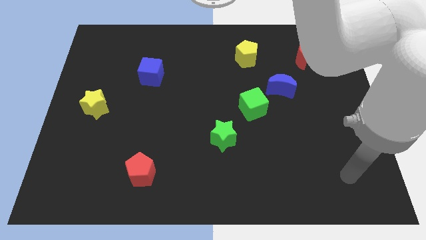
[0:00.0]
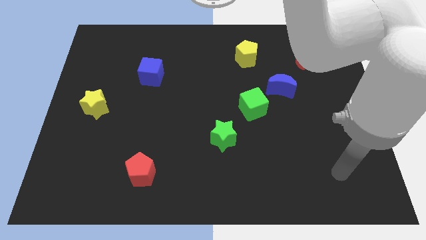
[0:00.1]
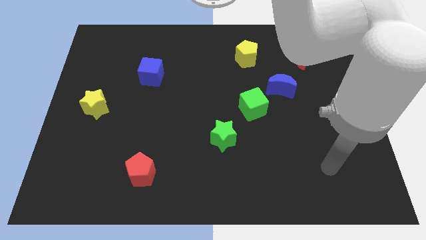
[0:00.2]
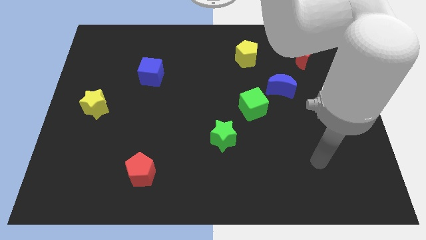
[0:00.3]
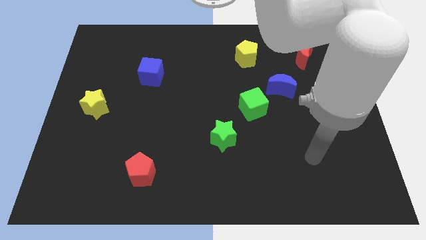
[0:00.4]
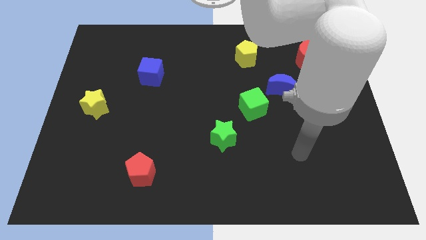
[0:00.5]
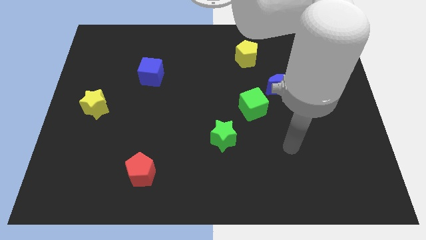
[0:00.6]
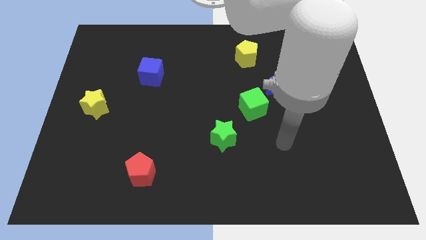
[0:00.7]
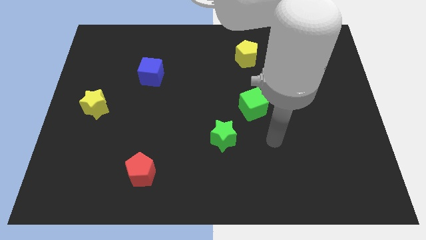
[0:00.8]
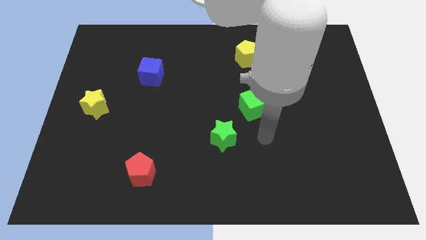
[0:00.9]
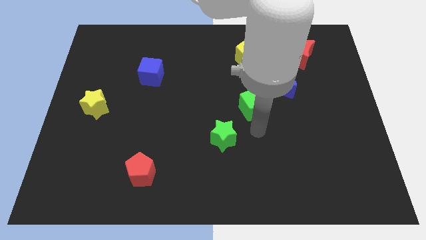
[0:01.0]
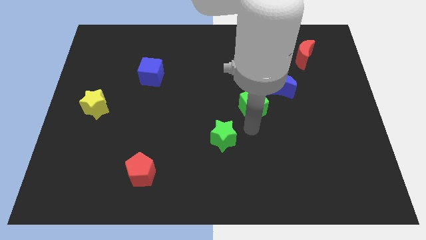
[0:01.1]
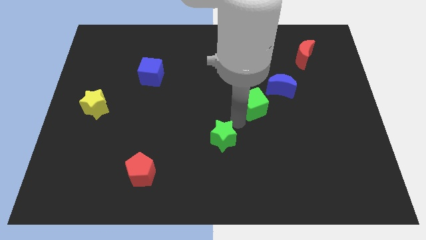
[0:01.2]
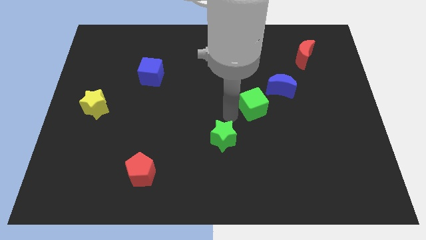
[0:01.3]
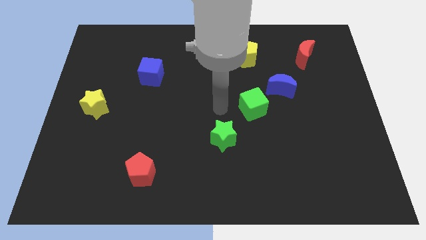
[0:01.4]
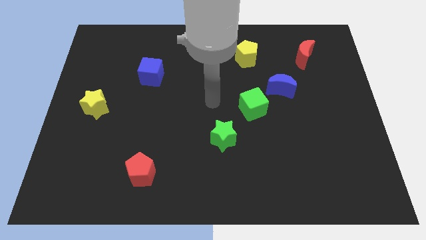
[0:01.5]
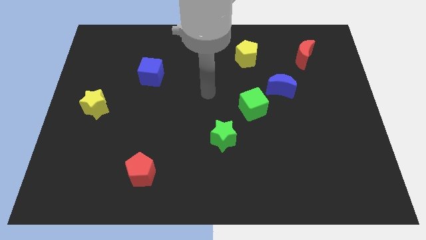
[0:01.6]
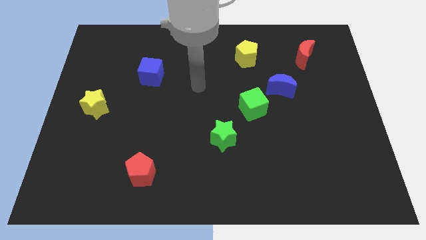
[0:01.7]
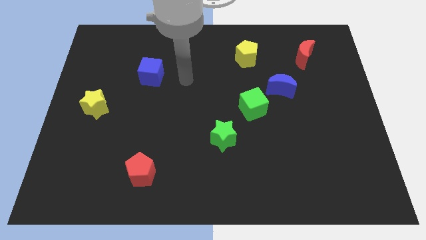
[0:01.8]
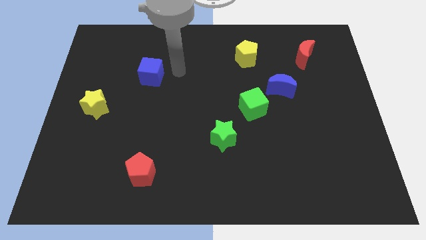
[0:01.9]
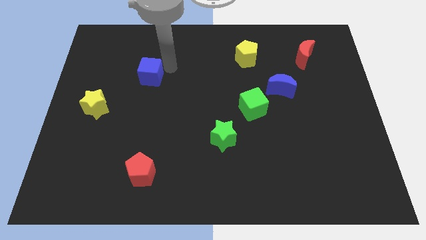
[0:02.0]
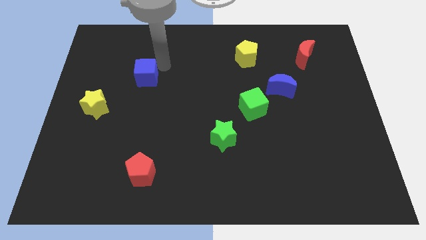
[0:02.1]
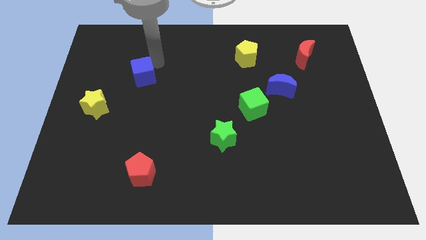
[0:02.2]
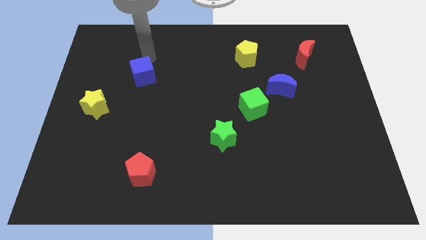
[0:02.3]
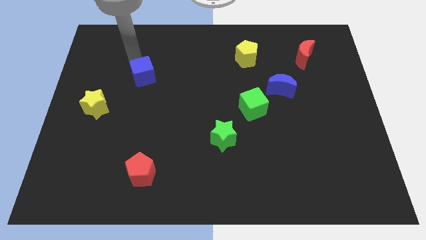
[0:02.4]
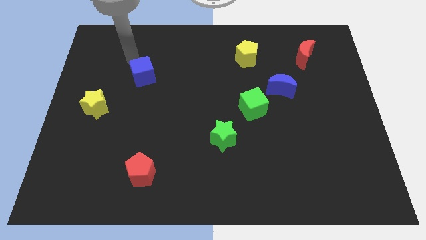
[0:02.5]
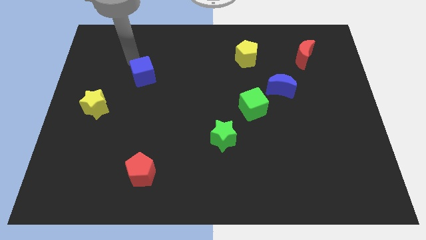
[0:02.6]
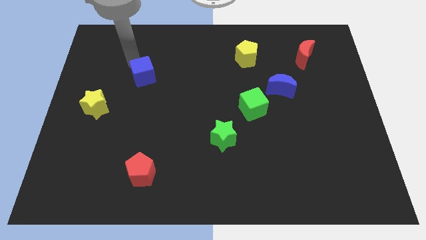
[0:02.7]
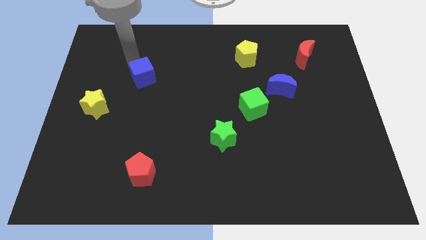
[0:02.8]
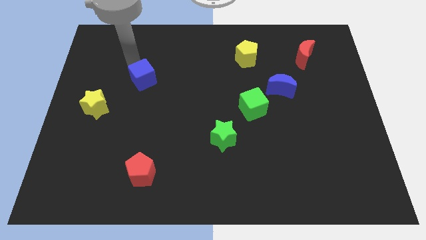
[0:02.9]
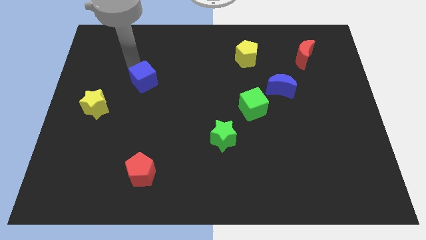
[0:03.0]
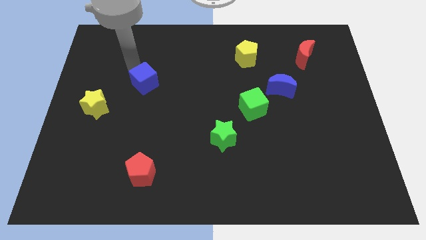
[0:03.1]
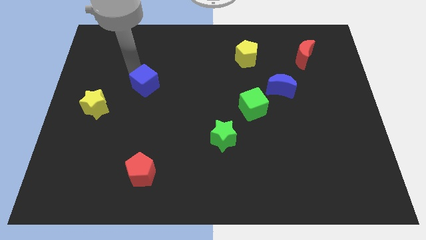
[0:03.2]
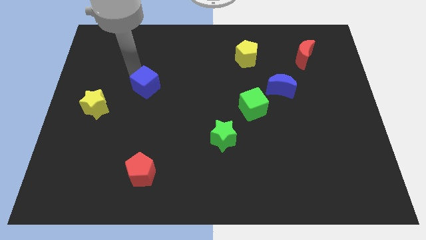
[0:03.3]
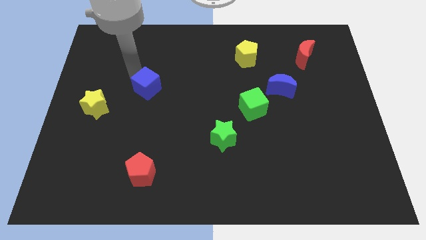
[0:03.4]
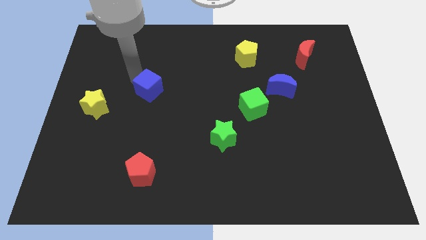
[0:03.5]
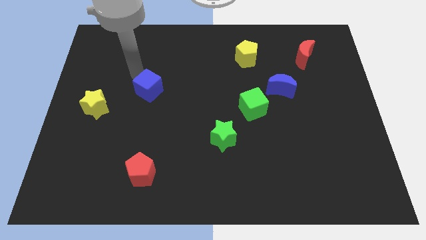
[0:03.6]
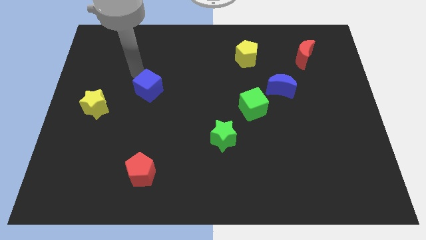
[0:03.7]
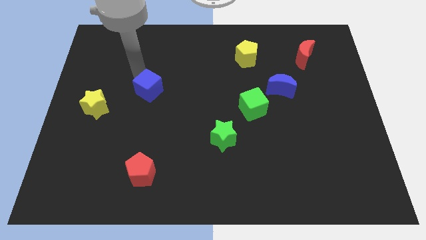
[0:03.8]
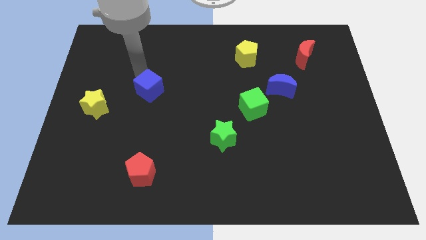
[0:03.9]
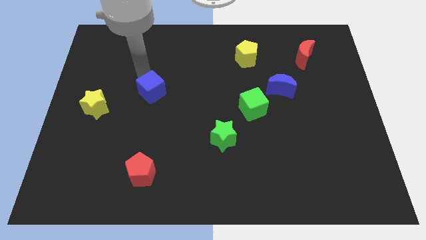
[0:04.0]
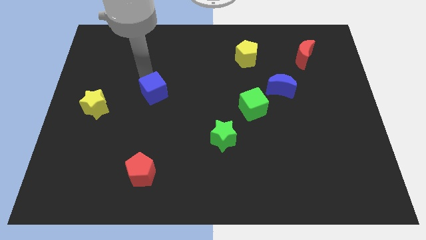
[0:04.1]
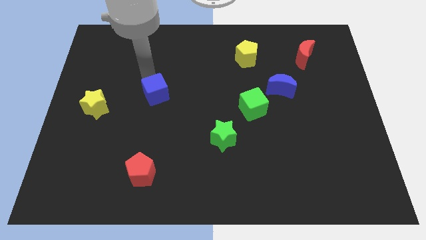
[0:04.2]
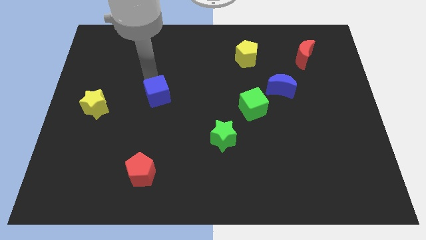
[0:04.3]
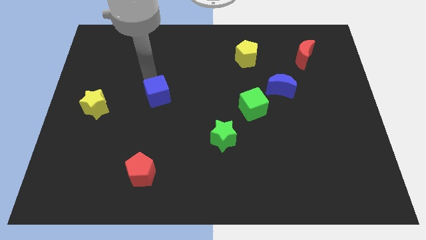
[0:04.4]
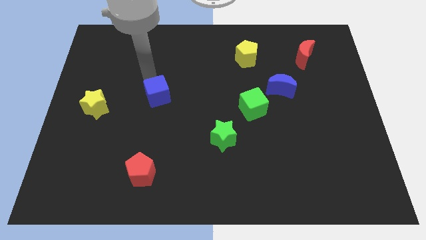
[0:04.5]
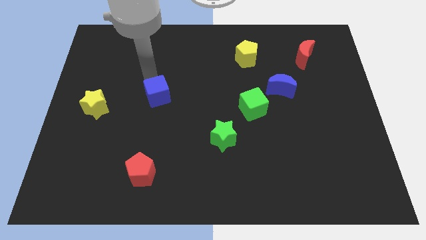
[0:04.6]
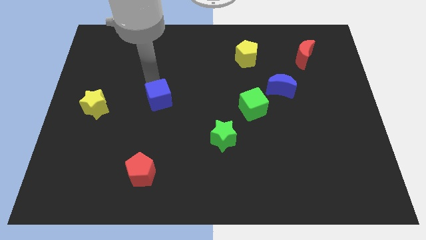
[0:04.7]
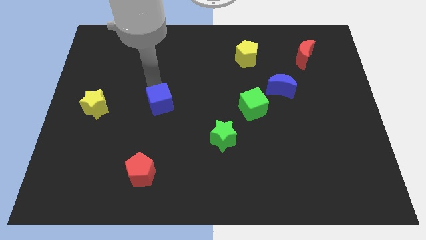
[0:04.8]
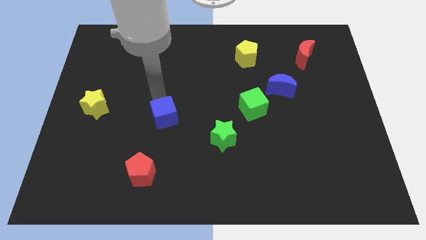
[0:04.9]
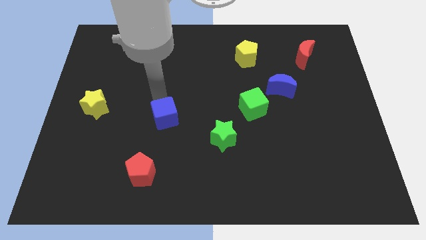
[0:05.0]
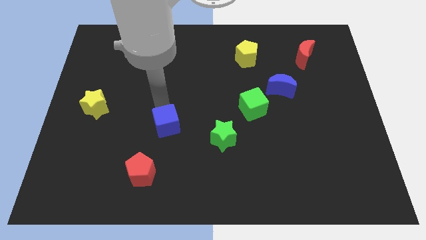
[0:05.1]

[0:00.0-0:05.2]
push the blue cube to the left side of the green star

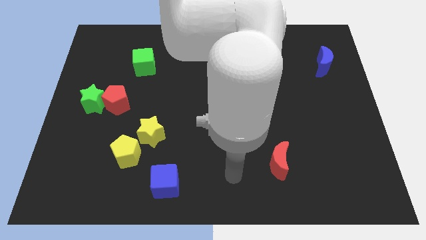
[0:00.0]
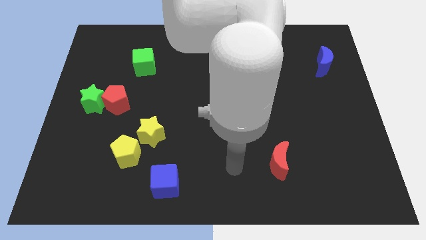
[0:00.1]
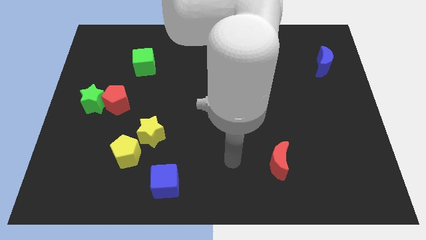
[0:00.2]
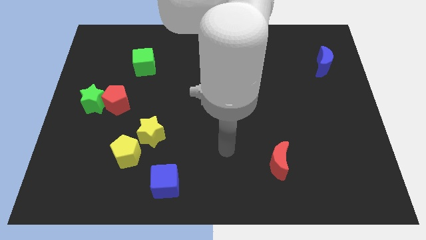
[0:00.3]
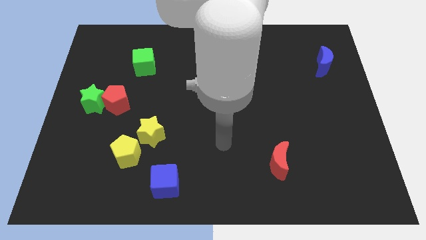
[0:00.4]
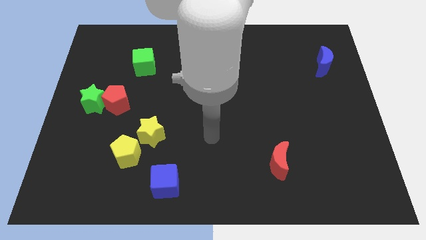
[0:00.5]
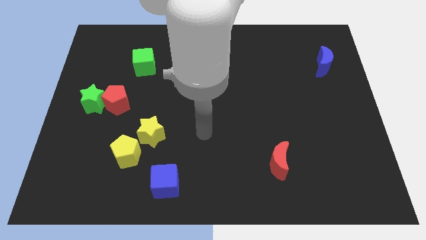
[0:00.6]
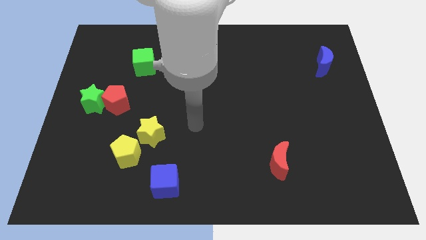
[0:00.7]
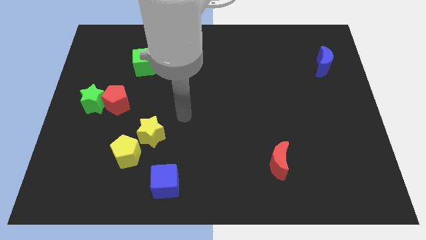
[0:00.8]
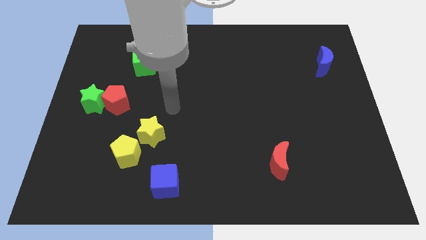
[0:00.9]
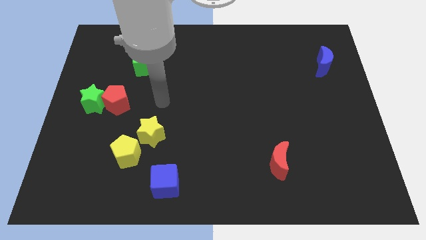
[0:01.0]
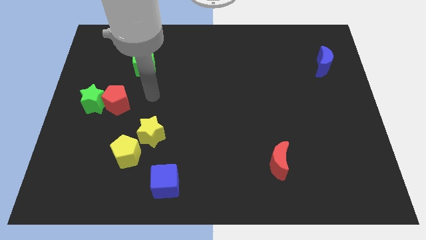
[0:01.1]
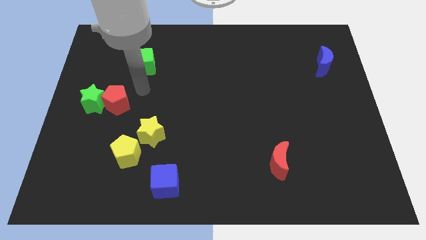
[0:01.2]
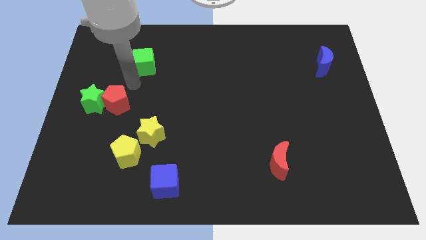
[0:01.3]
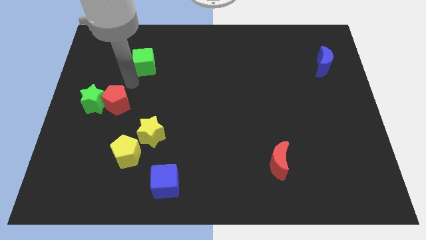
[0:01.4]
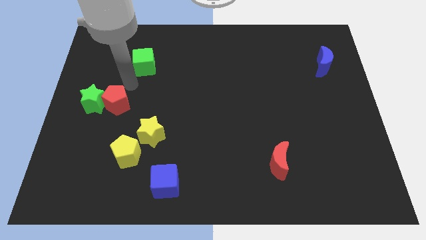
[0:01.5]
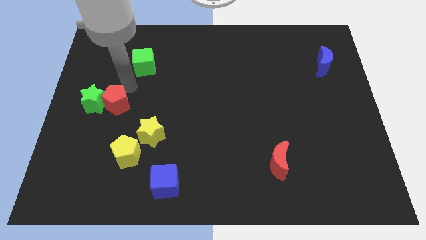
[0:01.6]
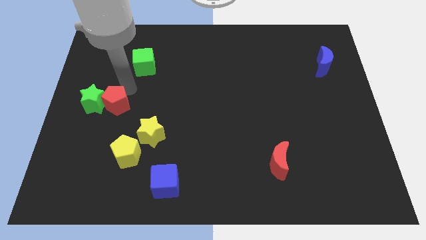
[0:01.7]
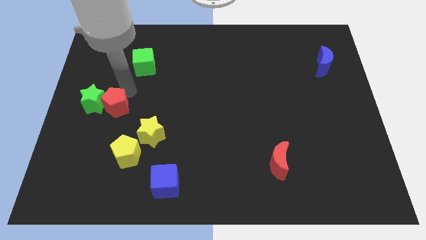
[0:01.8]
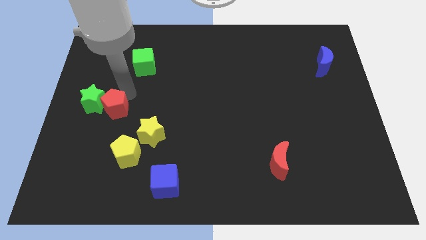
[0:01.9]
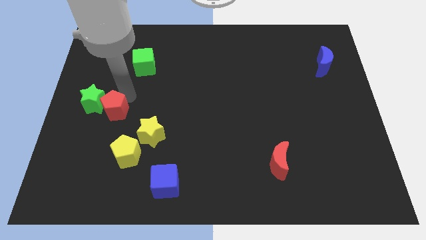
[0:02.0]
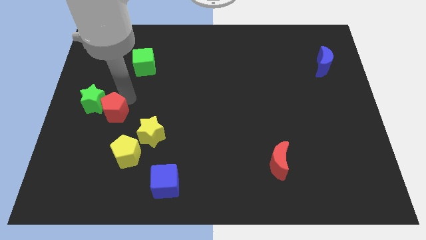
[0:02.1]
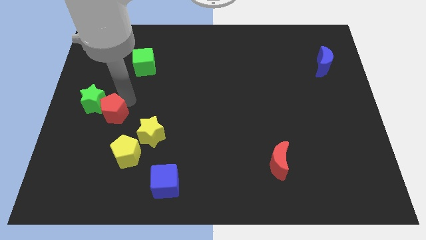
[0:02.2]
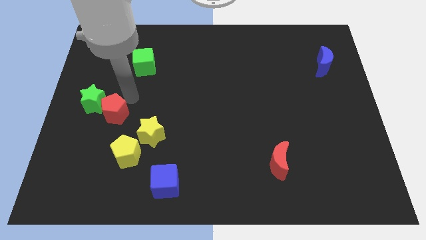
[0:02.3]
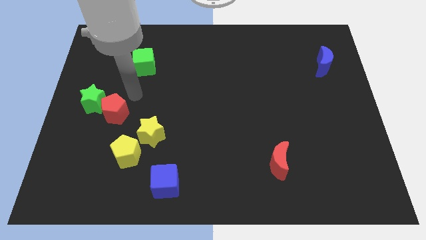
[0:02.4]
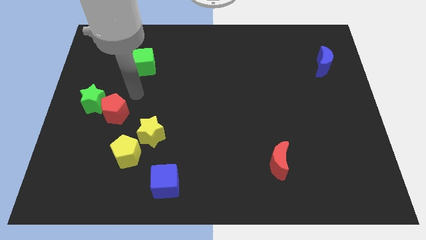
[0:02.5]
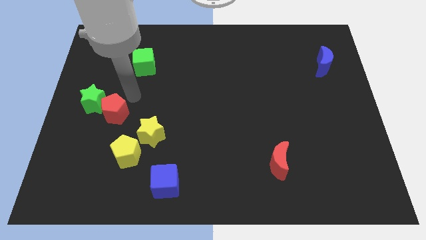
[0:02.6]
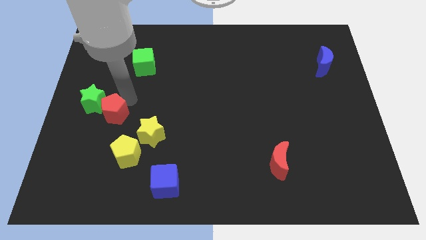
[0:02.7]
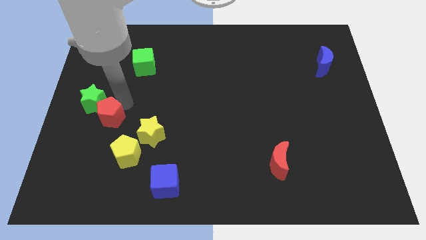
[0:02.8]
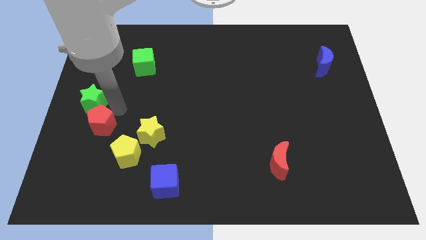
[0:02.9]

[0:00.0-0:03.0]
slide the red pentagon below the green star
